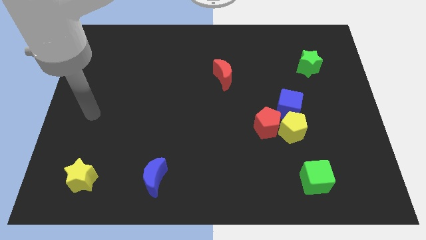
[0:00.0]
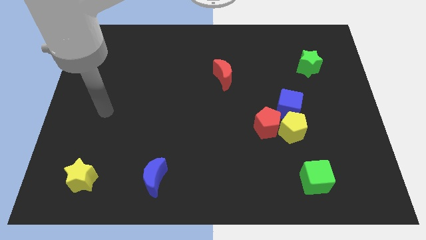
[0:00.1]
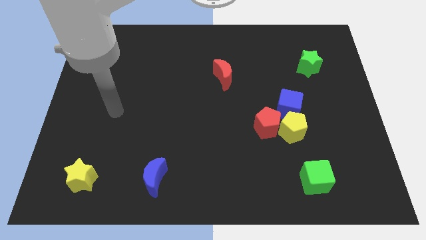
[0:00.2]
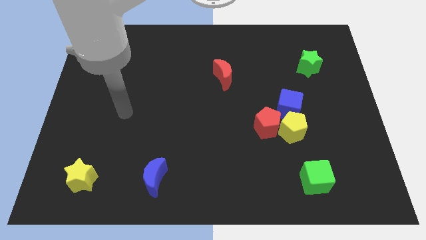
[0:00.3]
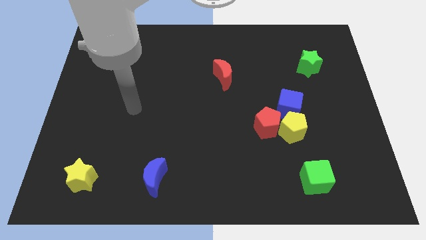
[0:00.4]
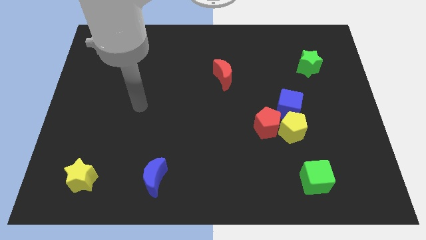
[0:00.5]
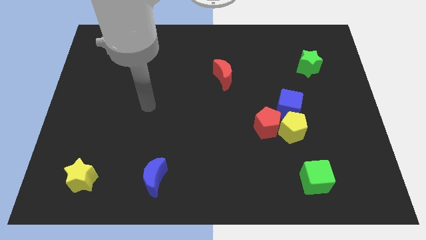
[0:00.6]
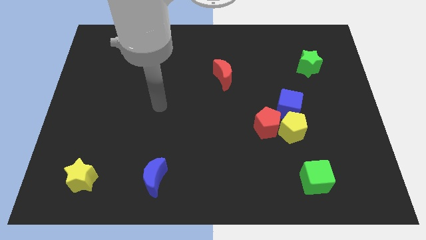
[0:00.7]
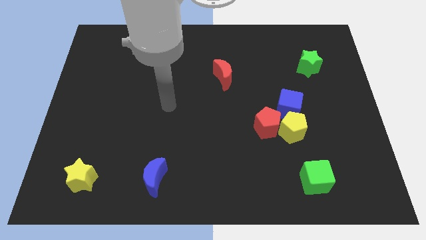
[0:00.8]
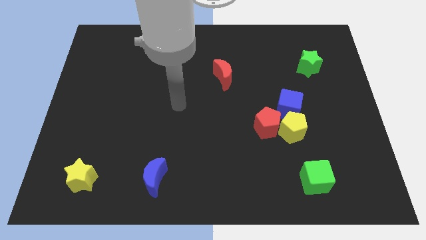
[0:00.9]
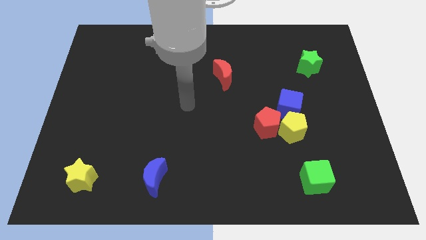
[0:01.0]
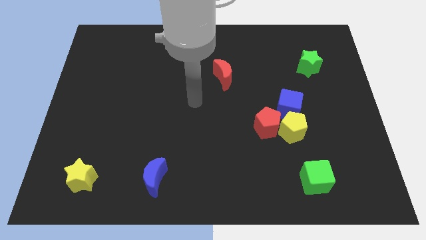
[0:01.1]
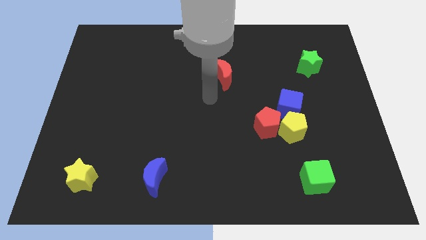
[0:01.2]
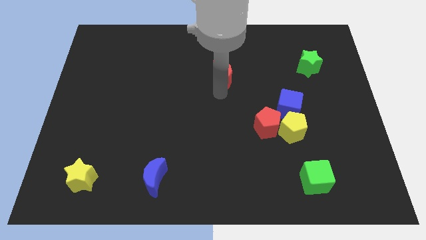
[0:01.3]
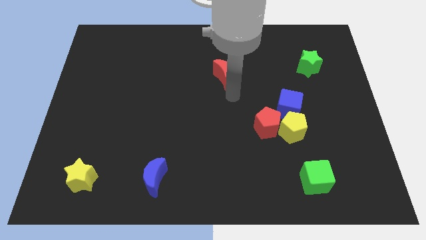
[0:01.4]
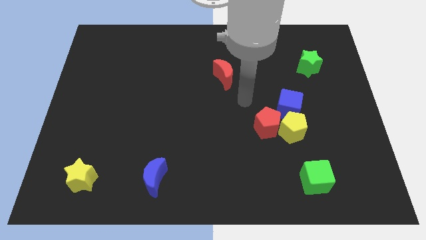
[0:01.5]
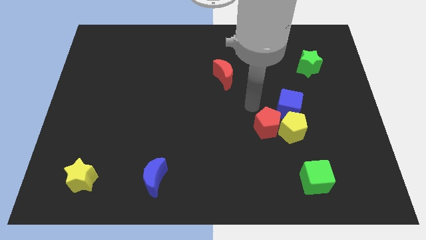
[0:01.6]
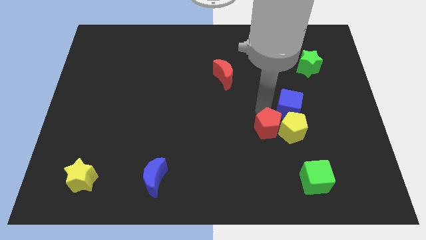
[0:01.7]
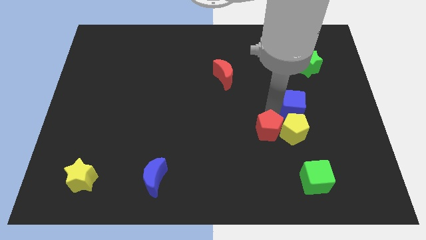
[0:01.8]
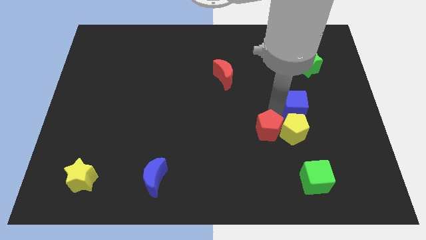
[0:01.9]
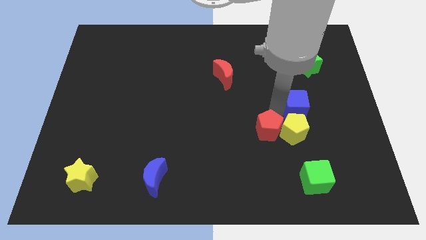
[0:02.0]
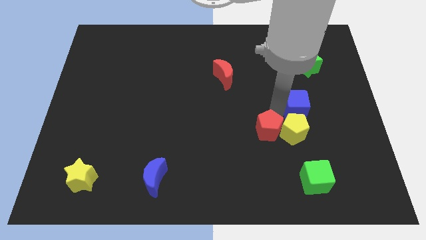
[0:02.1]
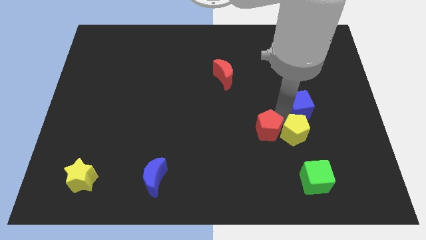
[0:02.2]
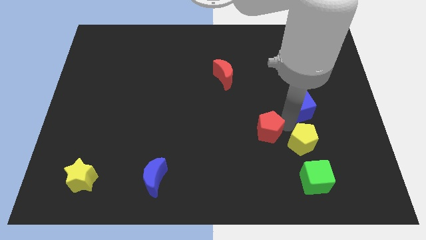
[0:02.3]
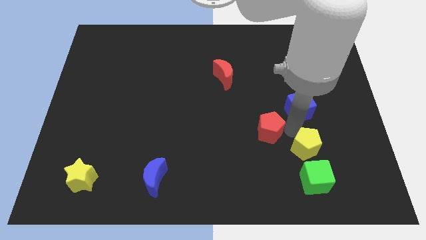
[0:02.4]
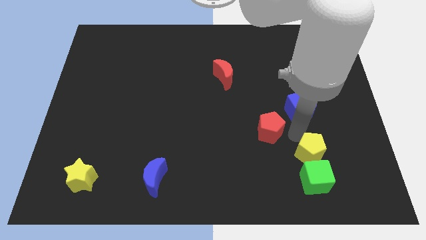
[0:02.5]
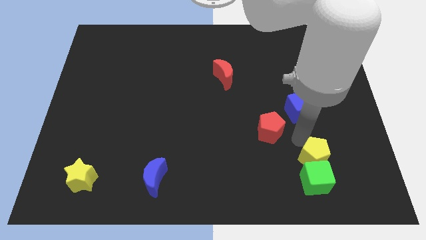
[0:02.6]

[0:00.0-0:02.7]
move the yellow pentagon away from the red pentagon and blue cube

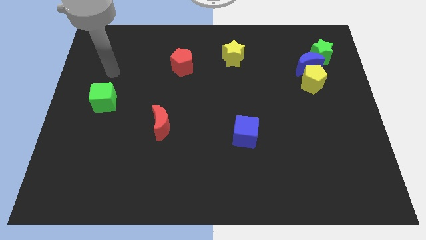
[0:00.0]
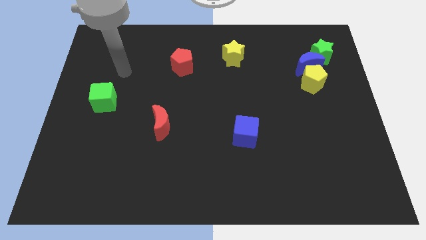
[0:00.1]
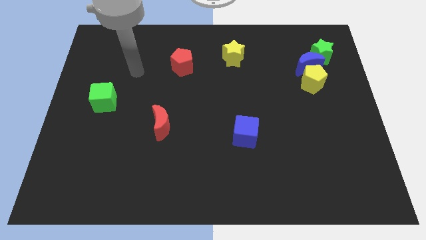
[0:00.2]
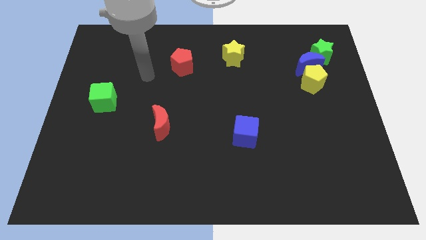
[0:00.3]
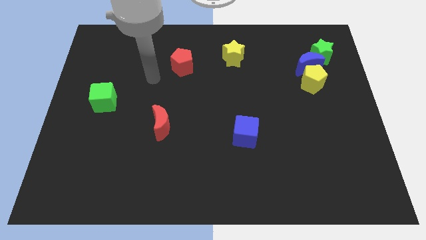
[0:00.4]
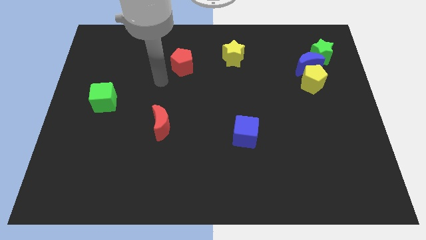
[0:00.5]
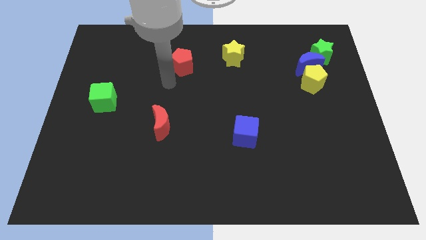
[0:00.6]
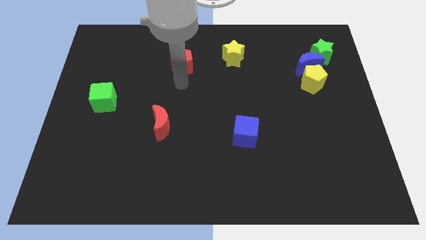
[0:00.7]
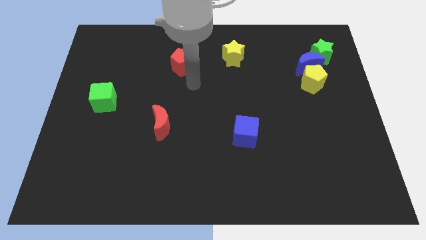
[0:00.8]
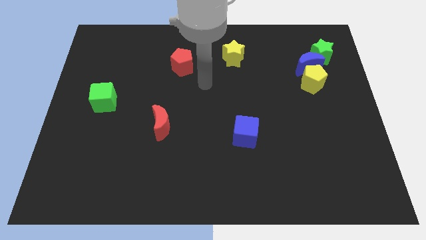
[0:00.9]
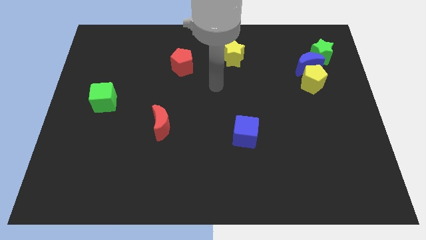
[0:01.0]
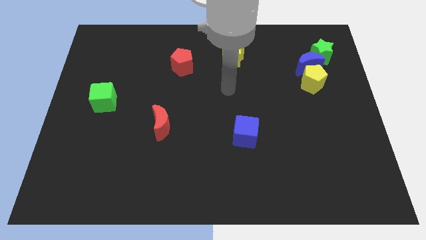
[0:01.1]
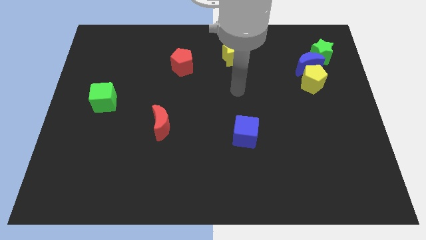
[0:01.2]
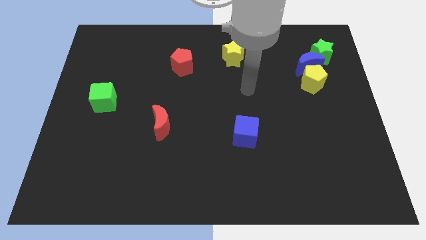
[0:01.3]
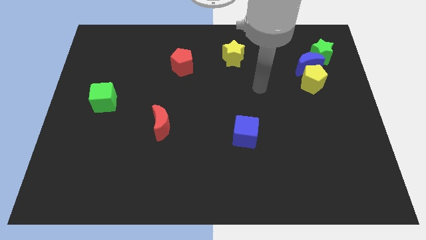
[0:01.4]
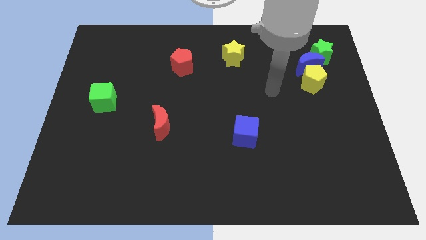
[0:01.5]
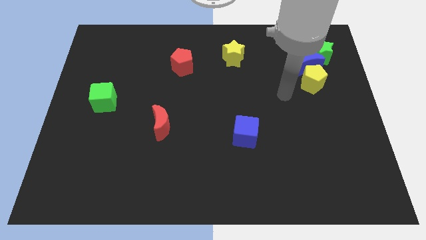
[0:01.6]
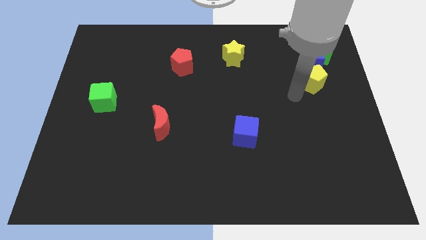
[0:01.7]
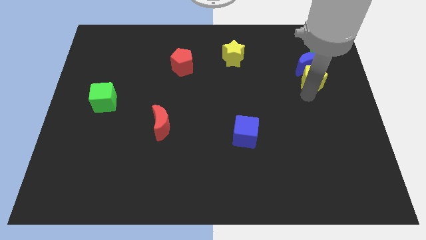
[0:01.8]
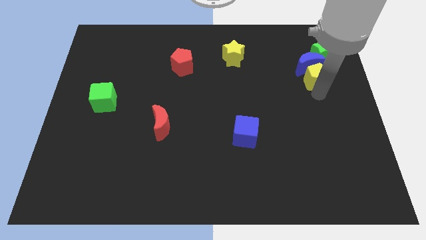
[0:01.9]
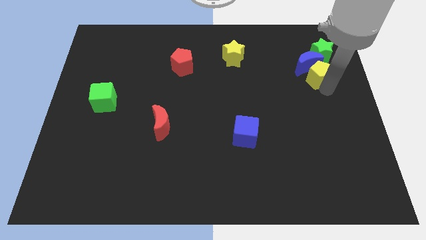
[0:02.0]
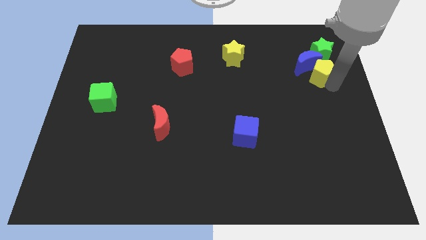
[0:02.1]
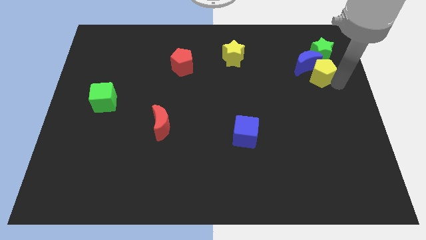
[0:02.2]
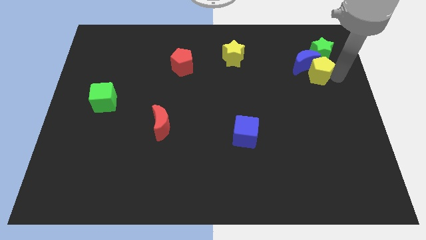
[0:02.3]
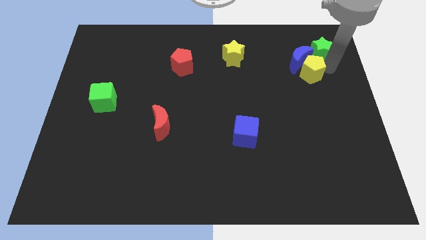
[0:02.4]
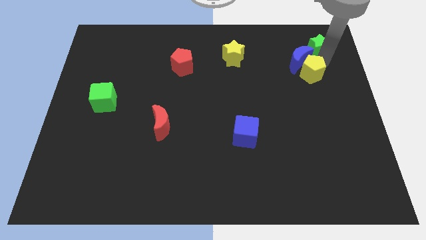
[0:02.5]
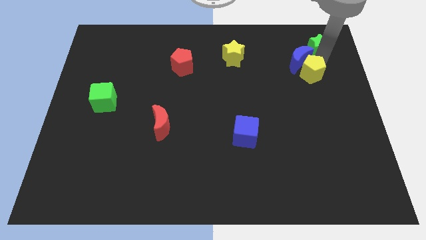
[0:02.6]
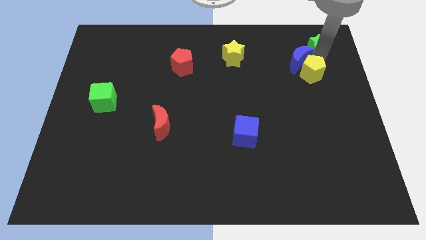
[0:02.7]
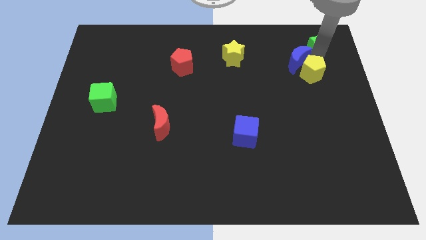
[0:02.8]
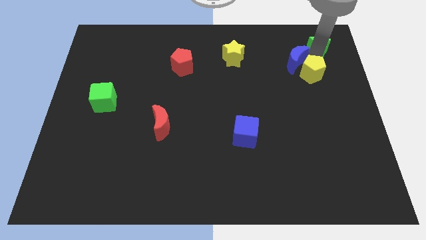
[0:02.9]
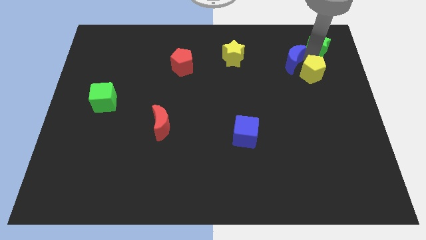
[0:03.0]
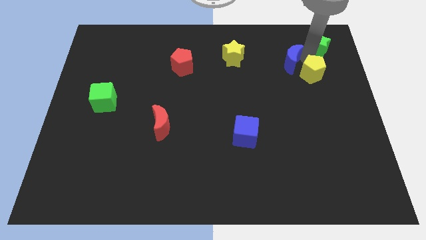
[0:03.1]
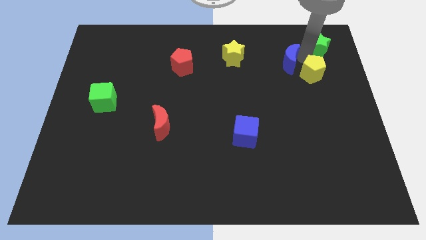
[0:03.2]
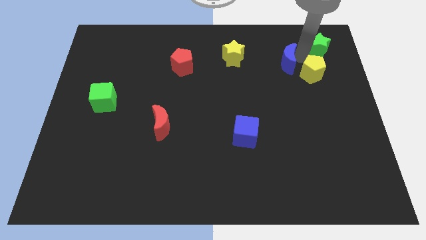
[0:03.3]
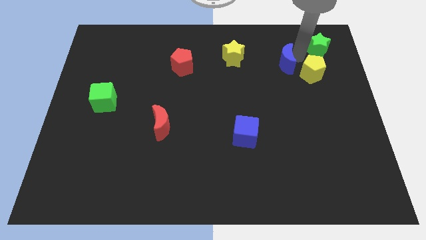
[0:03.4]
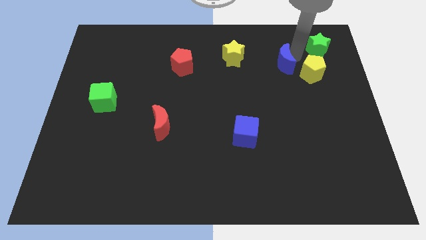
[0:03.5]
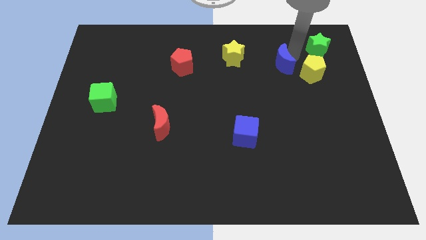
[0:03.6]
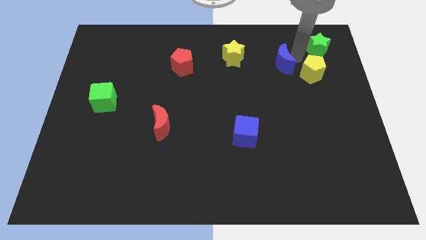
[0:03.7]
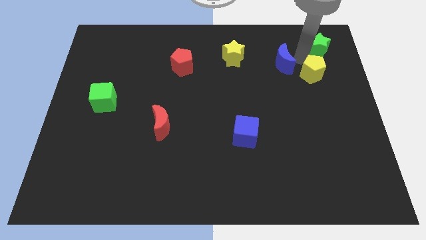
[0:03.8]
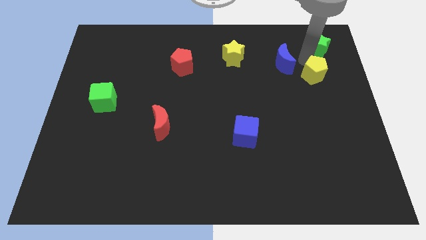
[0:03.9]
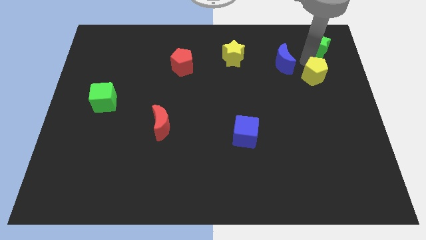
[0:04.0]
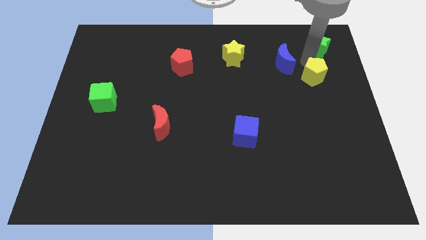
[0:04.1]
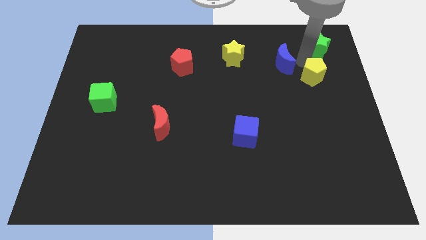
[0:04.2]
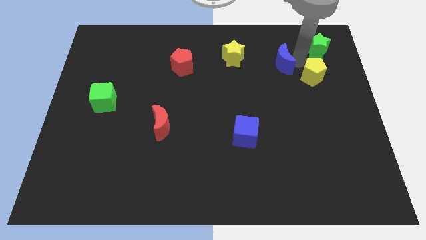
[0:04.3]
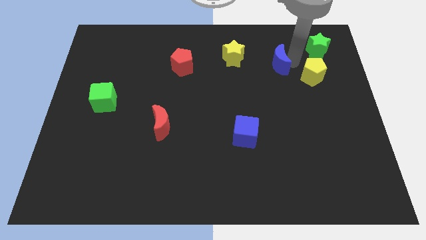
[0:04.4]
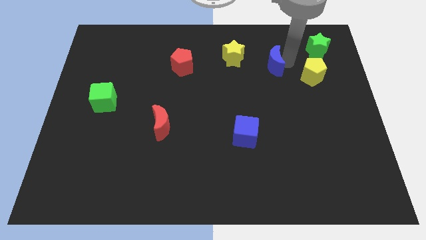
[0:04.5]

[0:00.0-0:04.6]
move the blue moon away from the yellow pentagon and green star

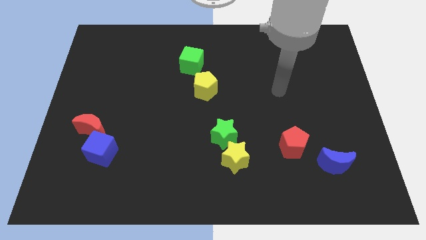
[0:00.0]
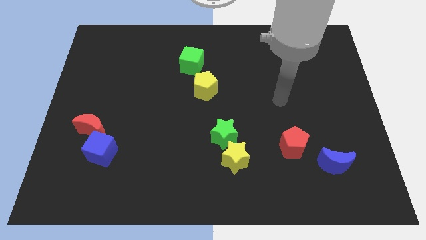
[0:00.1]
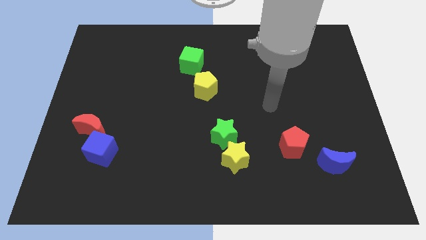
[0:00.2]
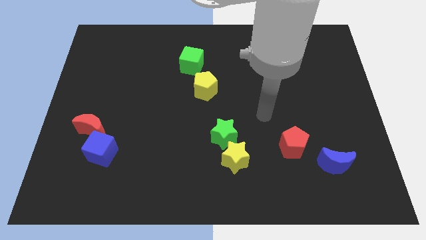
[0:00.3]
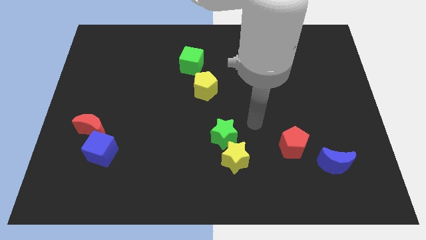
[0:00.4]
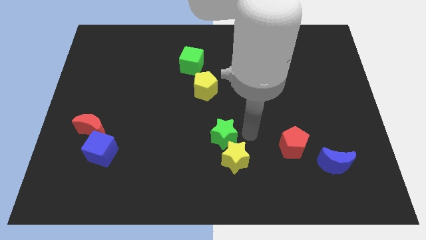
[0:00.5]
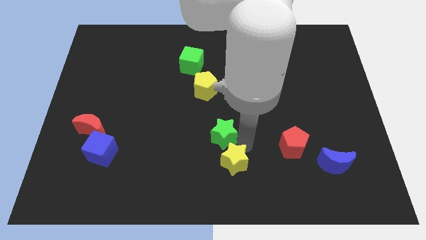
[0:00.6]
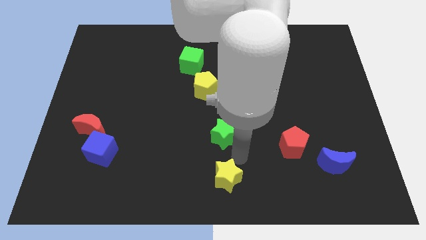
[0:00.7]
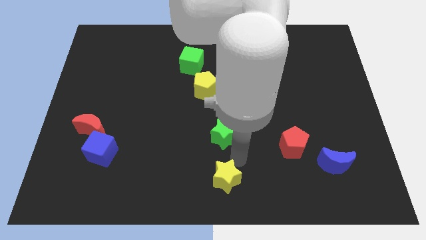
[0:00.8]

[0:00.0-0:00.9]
pull the green star apart from the yellow star

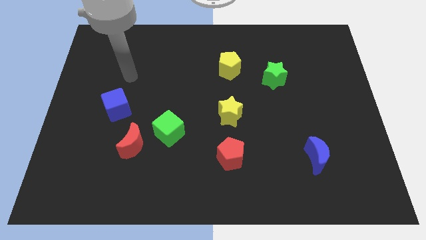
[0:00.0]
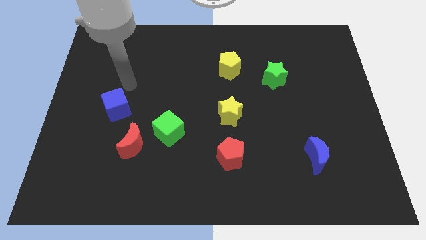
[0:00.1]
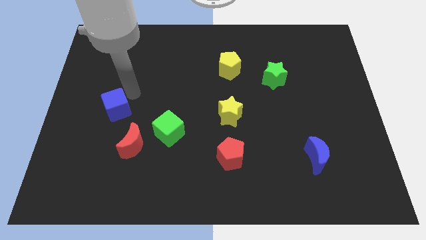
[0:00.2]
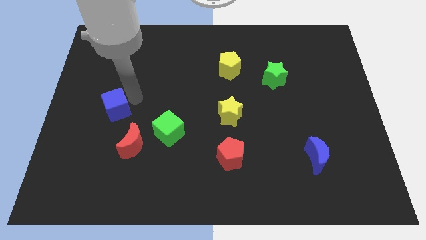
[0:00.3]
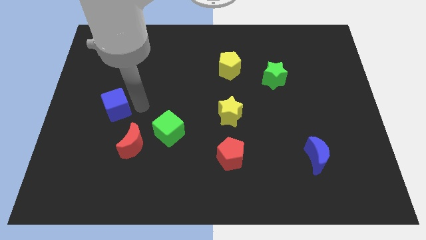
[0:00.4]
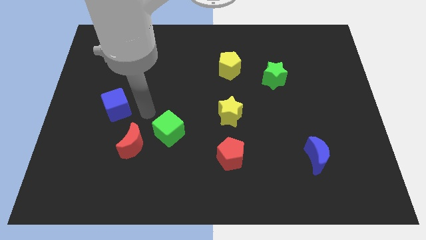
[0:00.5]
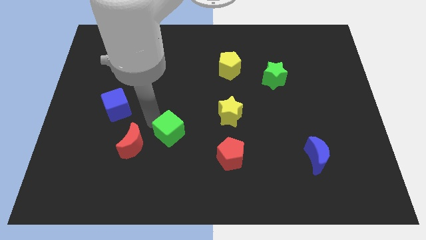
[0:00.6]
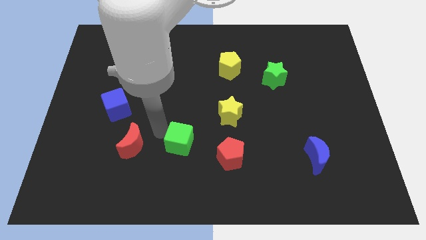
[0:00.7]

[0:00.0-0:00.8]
move the red moon away from the green cube

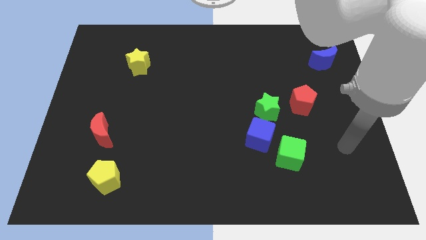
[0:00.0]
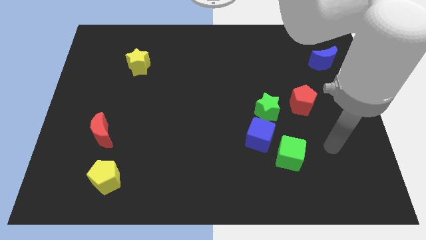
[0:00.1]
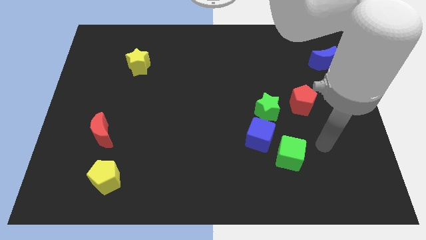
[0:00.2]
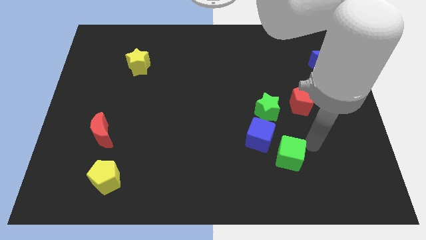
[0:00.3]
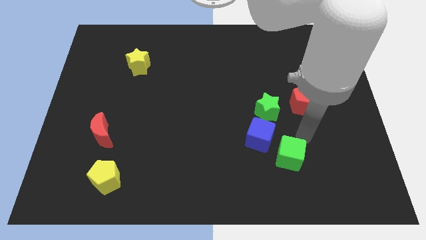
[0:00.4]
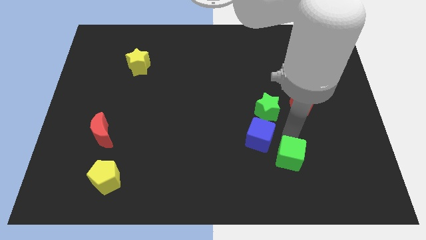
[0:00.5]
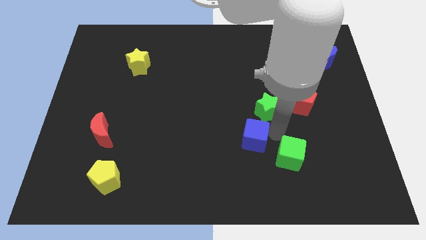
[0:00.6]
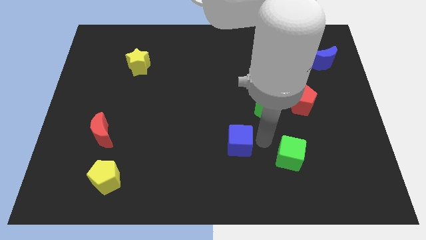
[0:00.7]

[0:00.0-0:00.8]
move the green cube away from the blue cube
